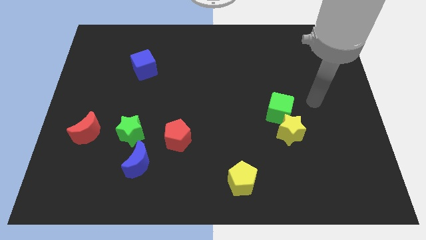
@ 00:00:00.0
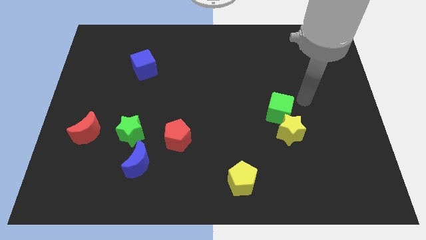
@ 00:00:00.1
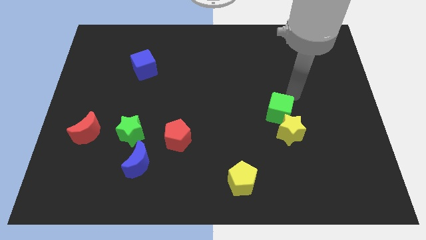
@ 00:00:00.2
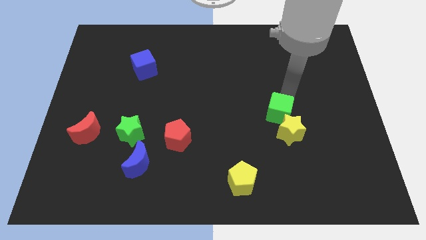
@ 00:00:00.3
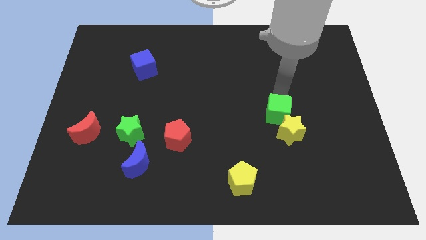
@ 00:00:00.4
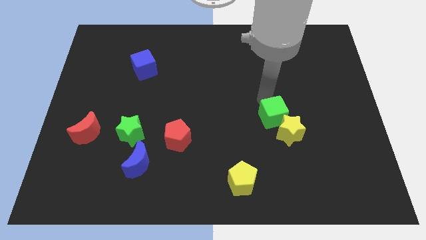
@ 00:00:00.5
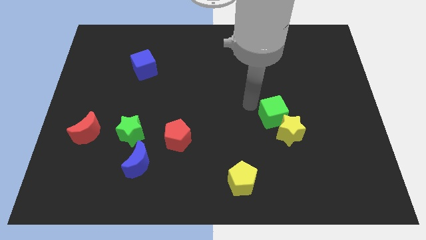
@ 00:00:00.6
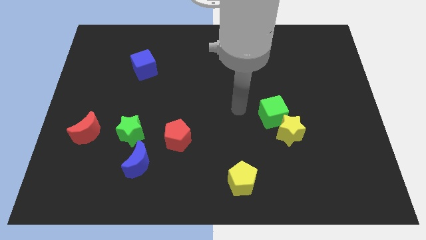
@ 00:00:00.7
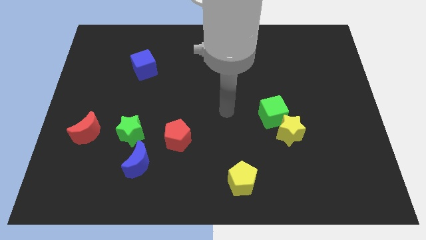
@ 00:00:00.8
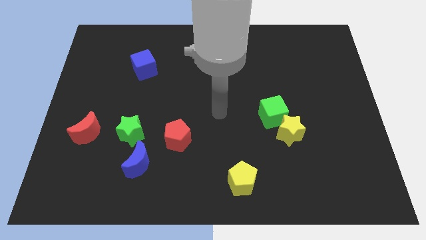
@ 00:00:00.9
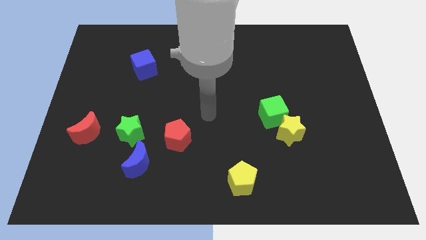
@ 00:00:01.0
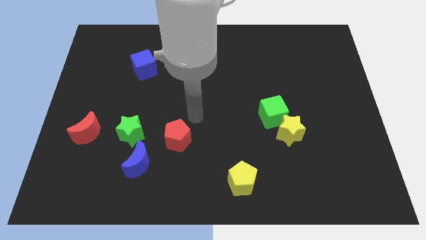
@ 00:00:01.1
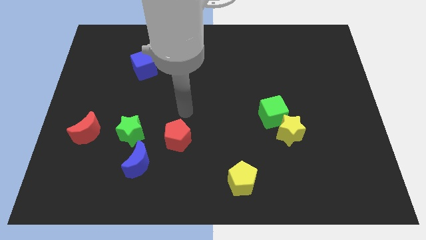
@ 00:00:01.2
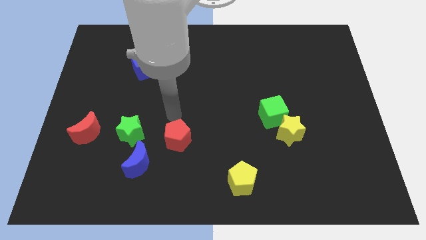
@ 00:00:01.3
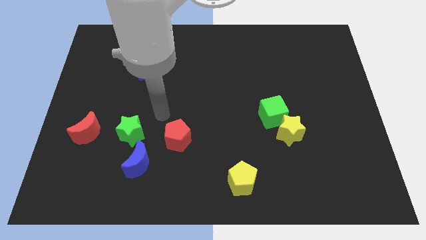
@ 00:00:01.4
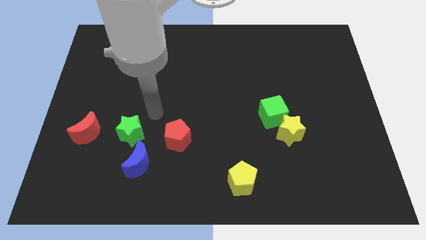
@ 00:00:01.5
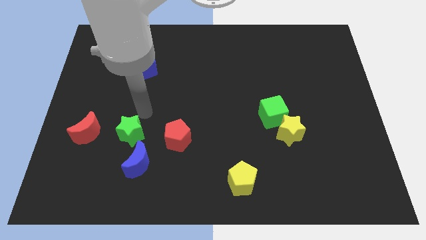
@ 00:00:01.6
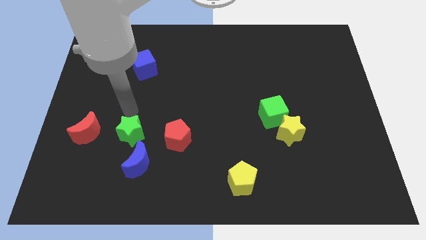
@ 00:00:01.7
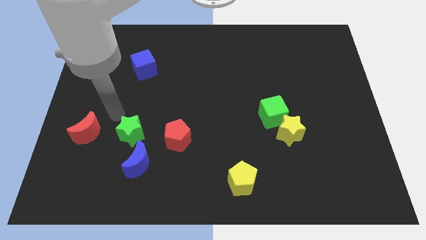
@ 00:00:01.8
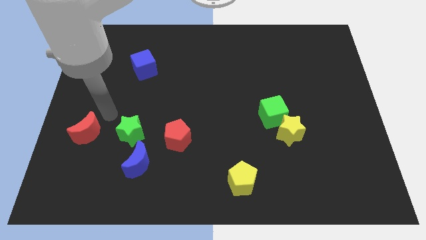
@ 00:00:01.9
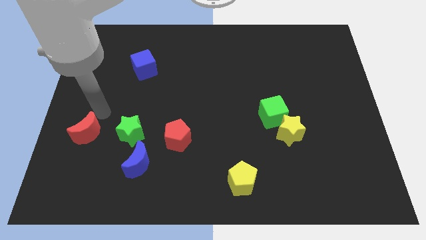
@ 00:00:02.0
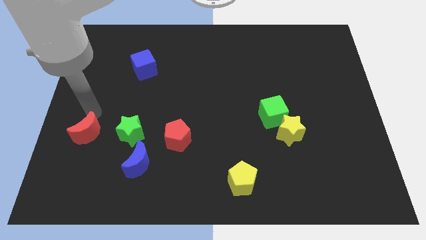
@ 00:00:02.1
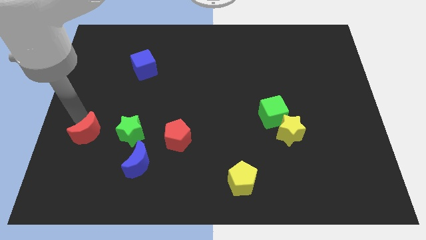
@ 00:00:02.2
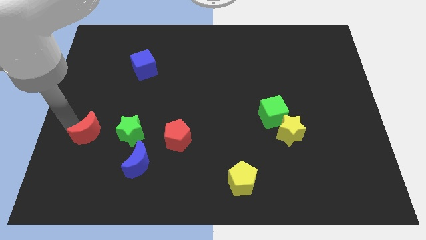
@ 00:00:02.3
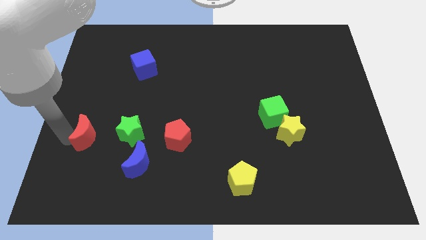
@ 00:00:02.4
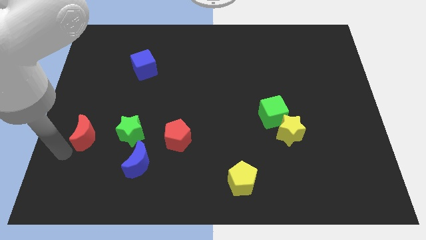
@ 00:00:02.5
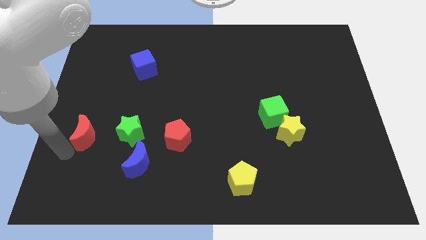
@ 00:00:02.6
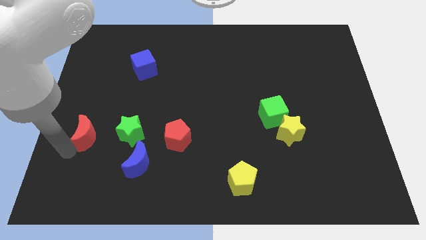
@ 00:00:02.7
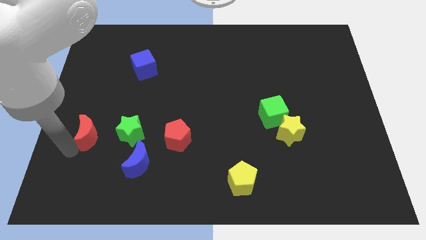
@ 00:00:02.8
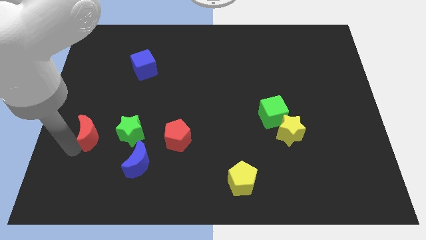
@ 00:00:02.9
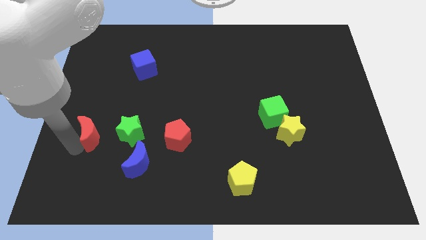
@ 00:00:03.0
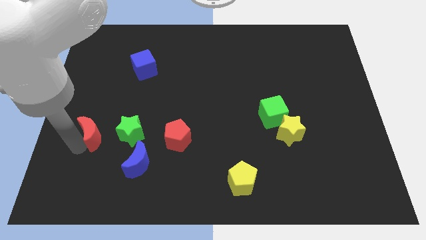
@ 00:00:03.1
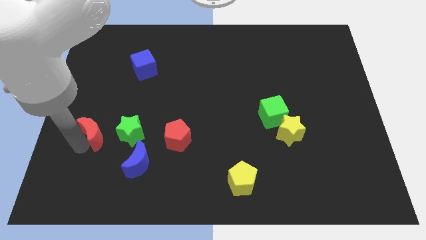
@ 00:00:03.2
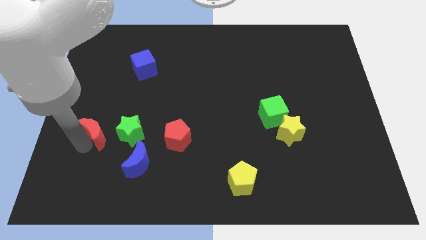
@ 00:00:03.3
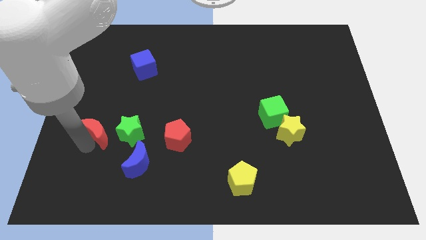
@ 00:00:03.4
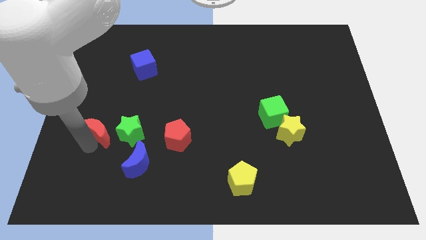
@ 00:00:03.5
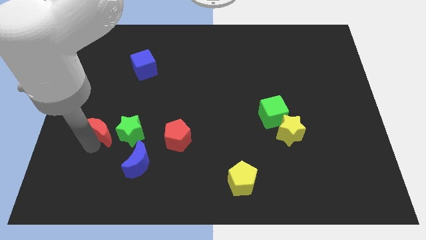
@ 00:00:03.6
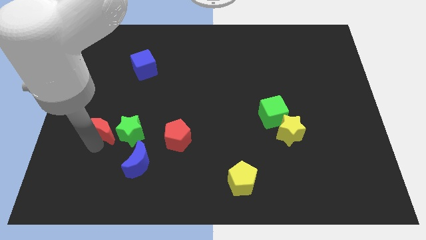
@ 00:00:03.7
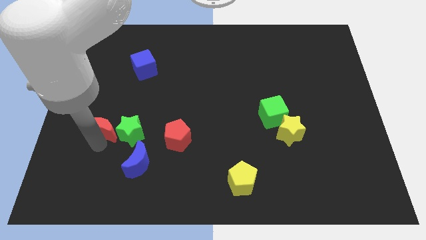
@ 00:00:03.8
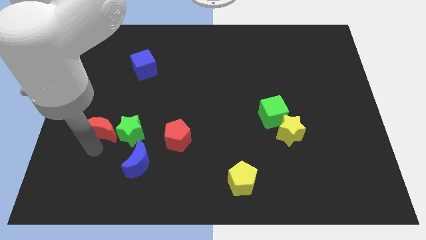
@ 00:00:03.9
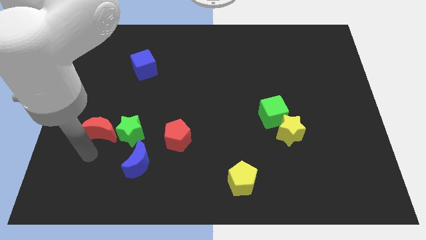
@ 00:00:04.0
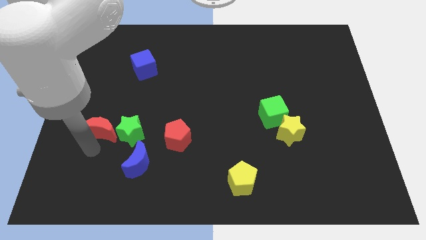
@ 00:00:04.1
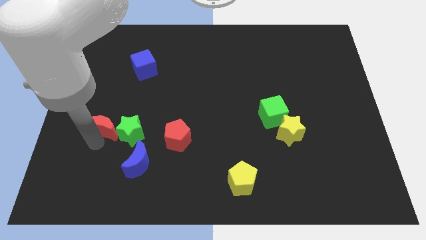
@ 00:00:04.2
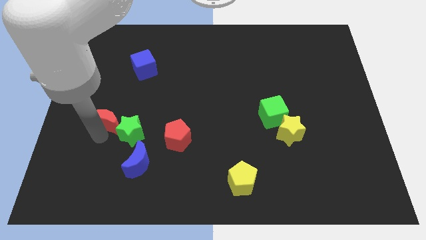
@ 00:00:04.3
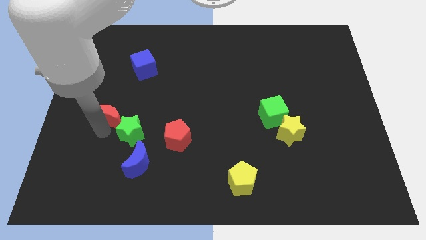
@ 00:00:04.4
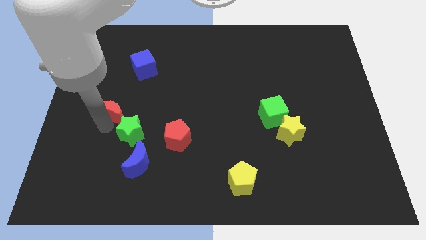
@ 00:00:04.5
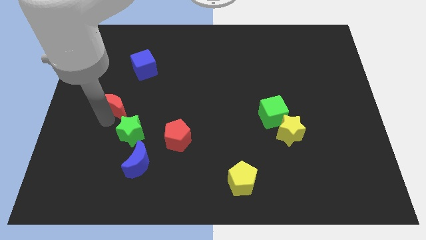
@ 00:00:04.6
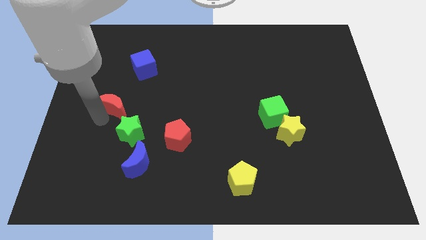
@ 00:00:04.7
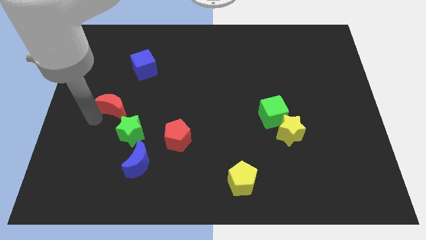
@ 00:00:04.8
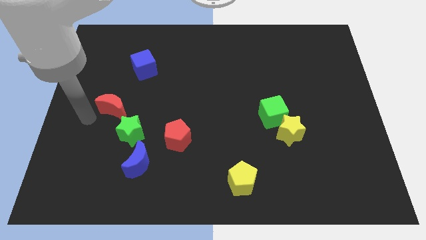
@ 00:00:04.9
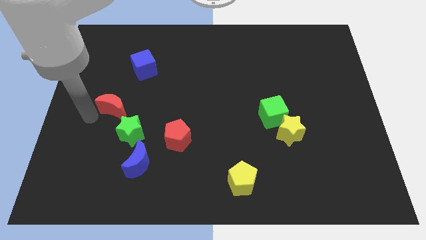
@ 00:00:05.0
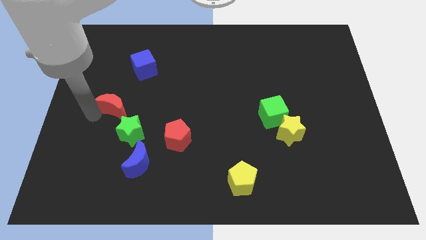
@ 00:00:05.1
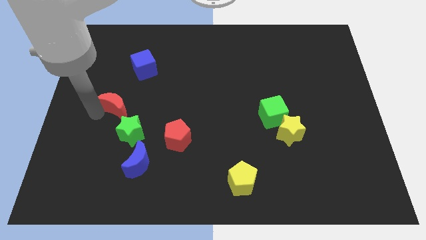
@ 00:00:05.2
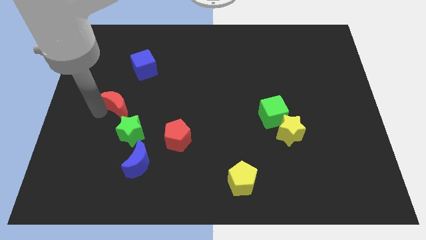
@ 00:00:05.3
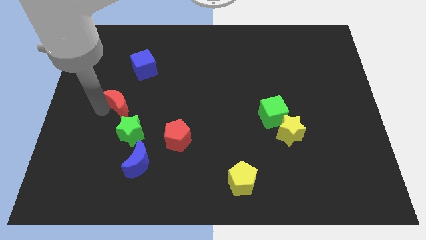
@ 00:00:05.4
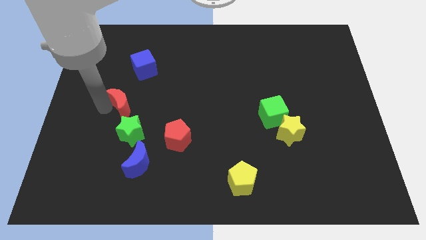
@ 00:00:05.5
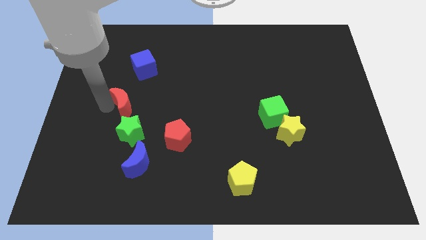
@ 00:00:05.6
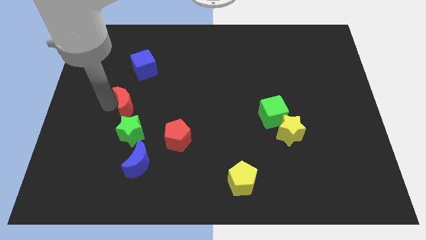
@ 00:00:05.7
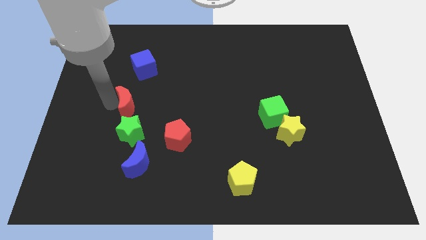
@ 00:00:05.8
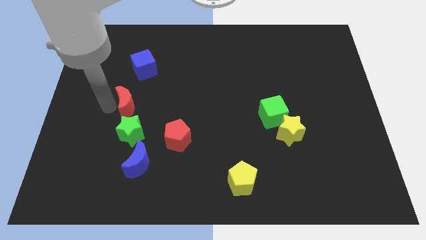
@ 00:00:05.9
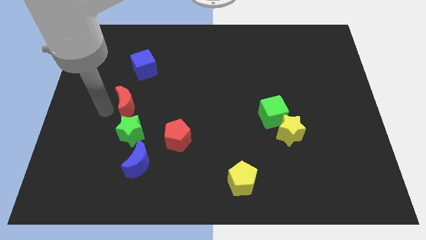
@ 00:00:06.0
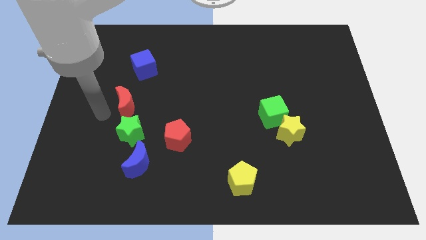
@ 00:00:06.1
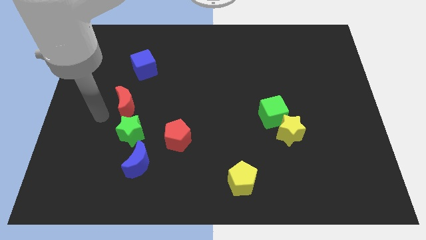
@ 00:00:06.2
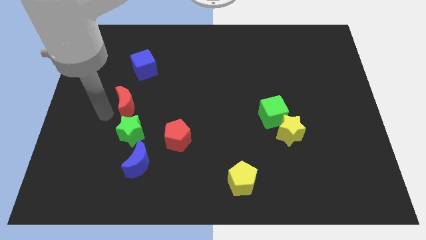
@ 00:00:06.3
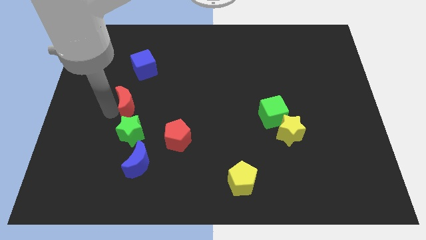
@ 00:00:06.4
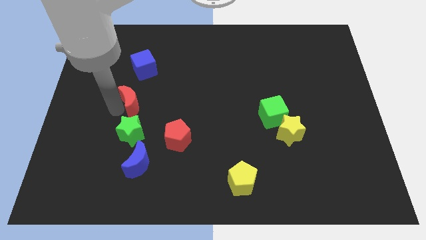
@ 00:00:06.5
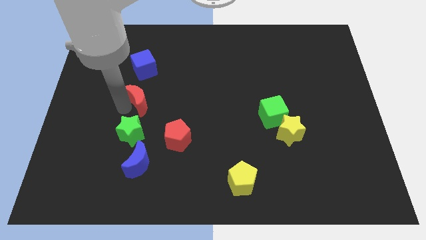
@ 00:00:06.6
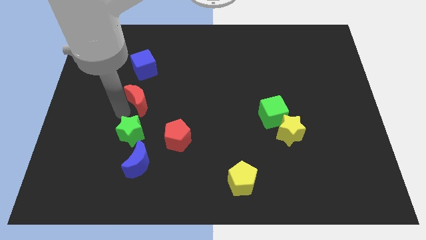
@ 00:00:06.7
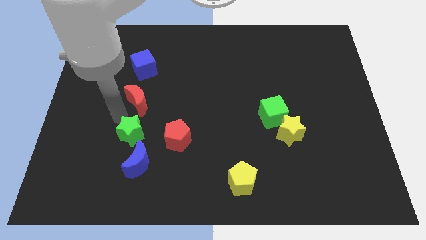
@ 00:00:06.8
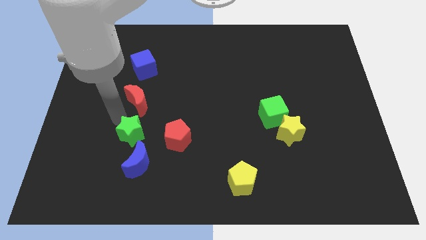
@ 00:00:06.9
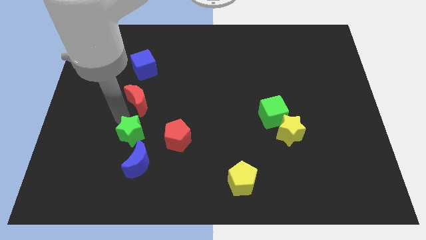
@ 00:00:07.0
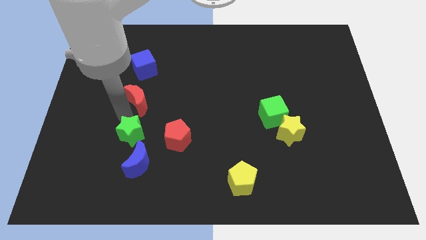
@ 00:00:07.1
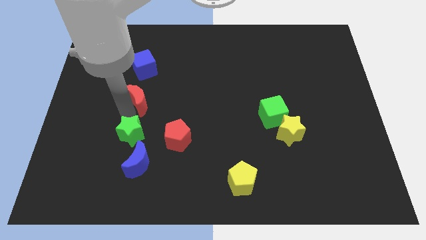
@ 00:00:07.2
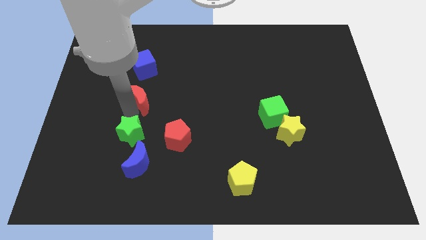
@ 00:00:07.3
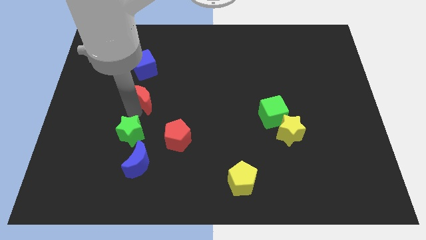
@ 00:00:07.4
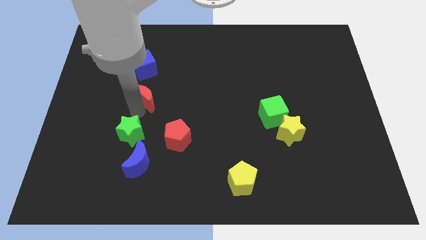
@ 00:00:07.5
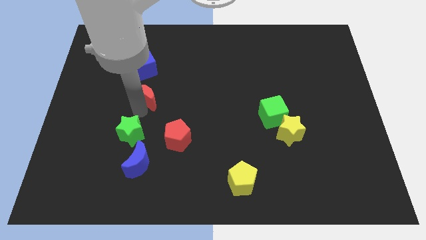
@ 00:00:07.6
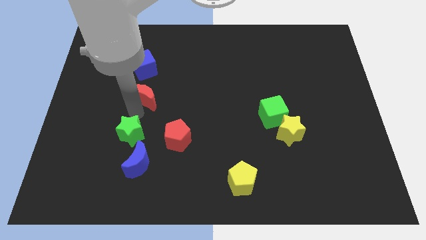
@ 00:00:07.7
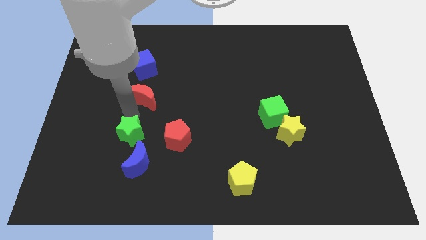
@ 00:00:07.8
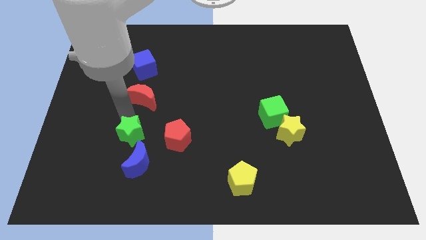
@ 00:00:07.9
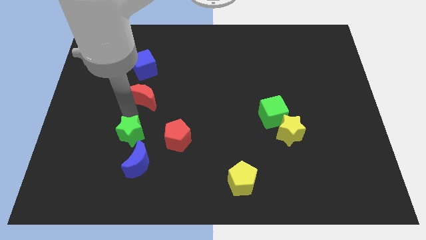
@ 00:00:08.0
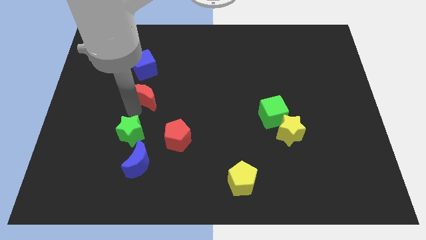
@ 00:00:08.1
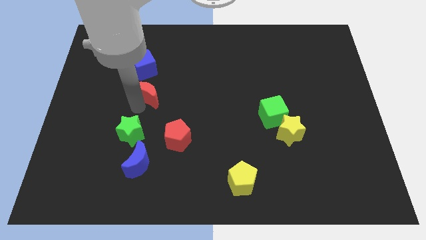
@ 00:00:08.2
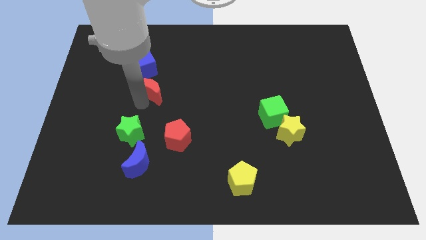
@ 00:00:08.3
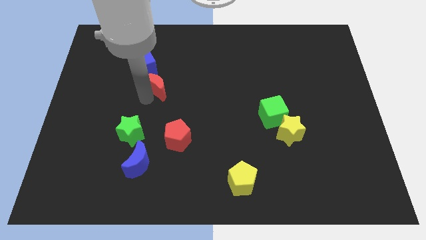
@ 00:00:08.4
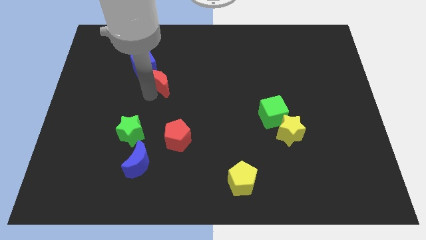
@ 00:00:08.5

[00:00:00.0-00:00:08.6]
move the red moon upwards and to the right

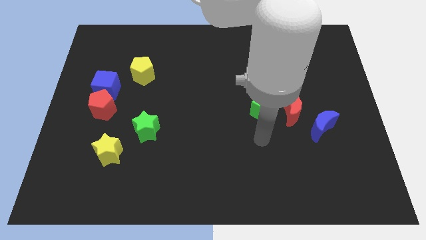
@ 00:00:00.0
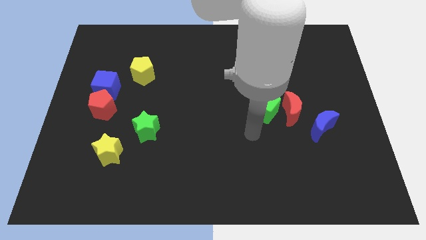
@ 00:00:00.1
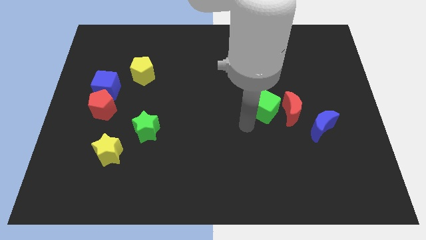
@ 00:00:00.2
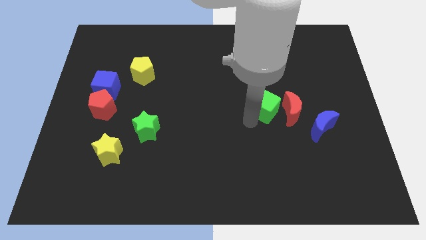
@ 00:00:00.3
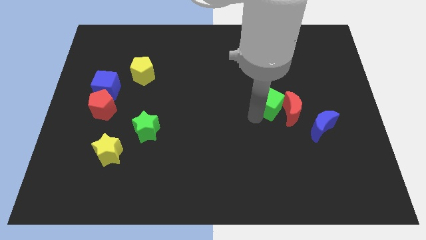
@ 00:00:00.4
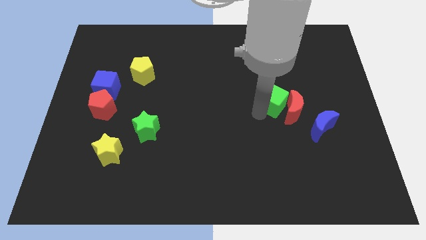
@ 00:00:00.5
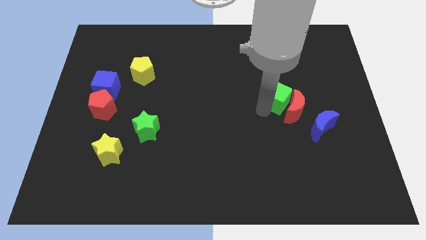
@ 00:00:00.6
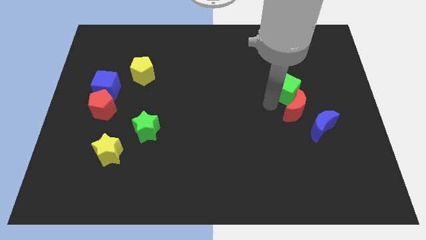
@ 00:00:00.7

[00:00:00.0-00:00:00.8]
slide the green cube slightly up and to the right diagonally
